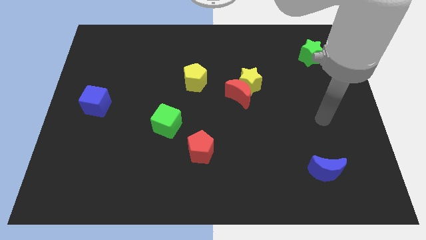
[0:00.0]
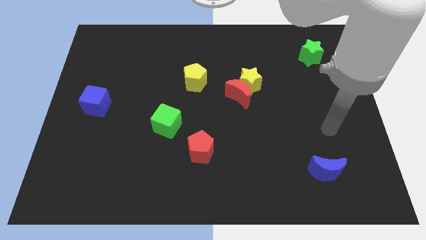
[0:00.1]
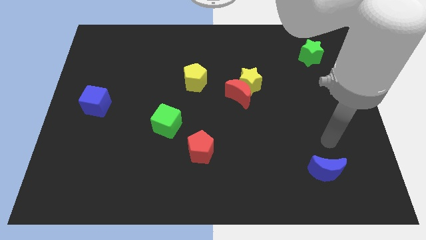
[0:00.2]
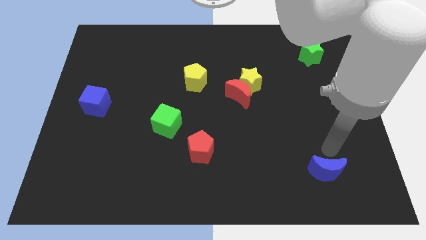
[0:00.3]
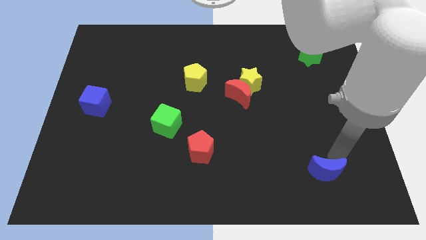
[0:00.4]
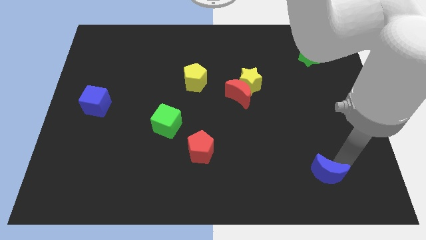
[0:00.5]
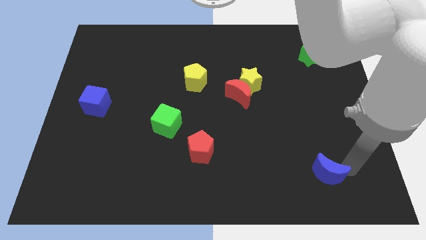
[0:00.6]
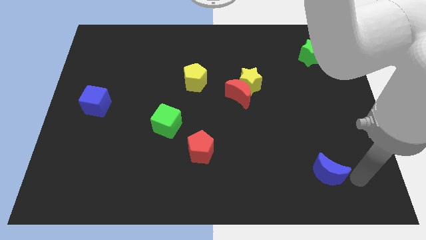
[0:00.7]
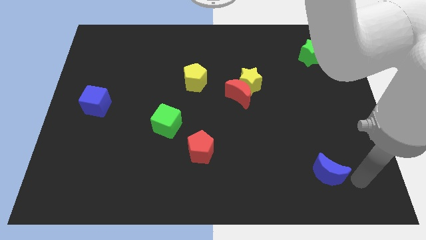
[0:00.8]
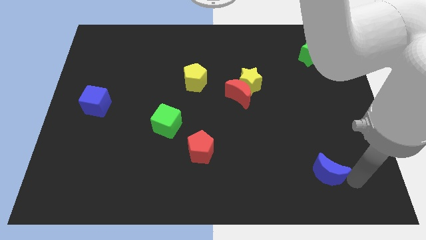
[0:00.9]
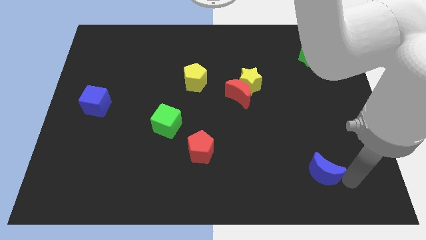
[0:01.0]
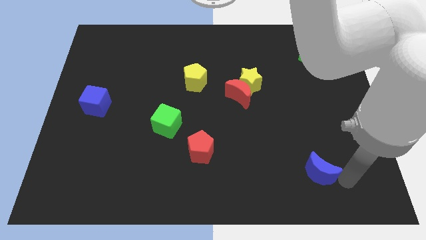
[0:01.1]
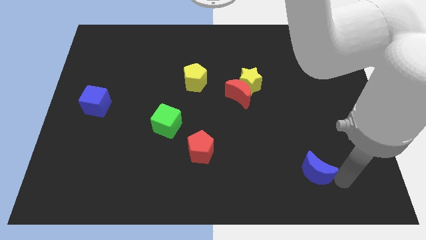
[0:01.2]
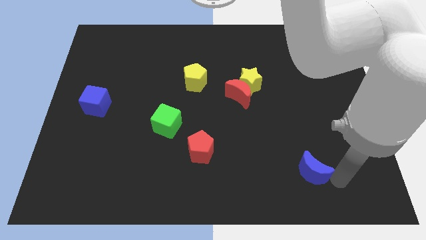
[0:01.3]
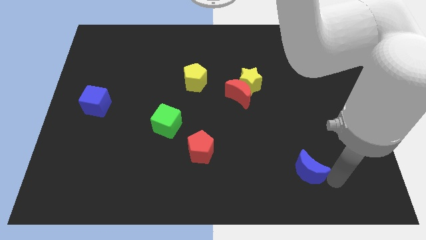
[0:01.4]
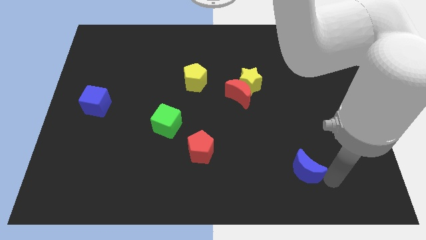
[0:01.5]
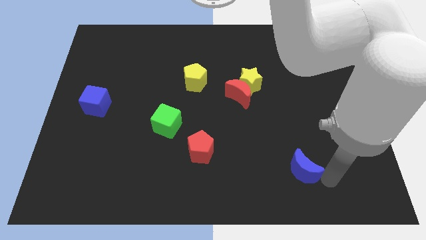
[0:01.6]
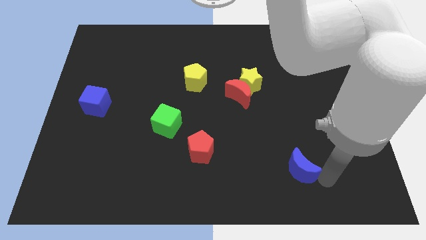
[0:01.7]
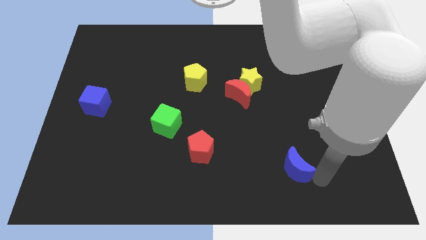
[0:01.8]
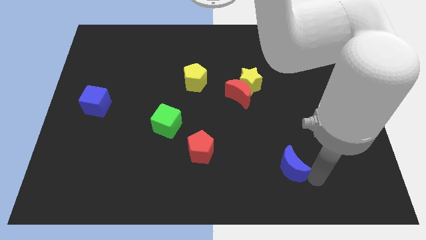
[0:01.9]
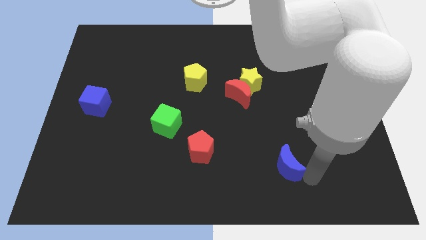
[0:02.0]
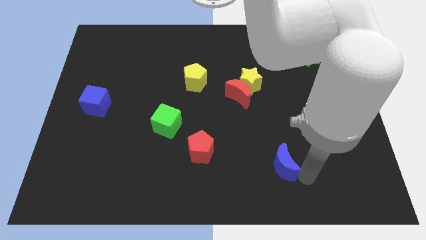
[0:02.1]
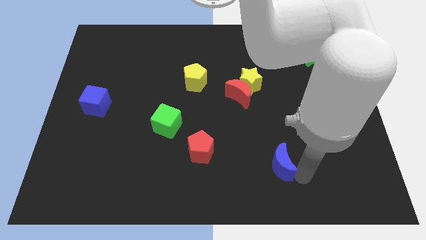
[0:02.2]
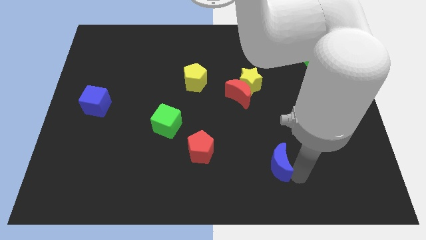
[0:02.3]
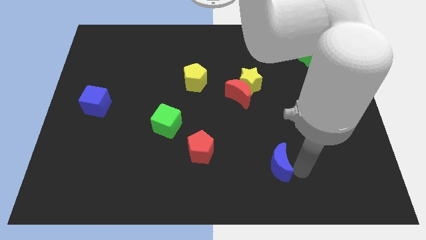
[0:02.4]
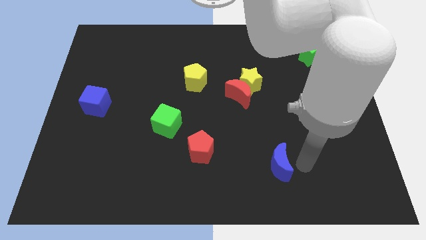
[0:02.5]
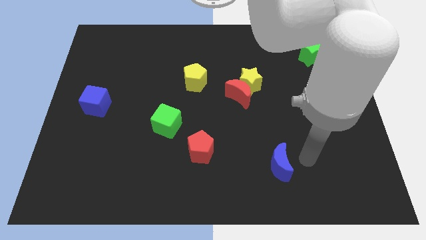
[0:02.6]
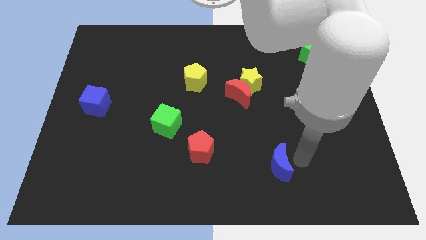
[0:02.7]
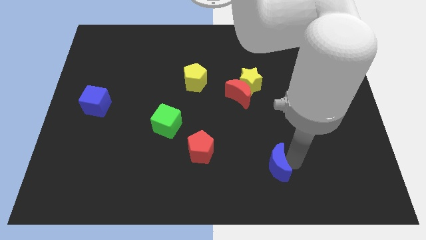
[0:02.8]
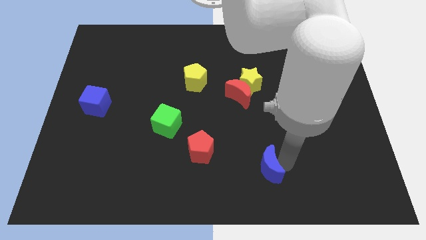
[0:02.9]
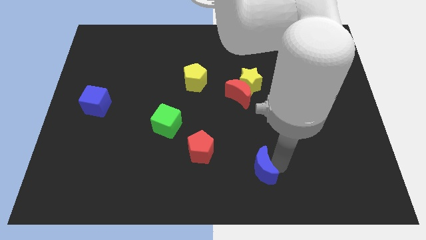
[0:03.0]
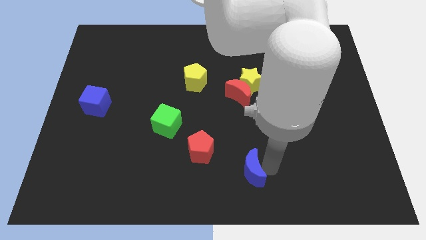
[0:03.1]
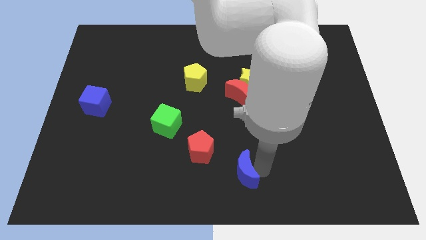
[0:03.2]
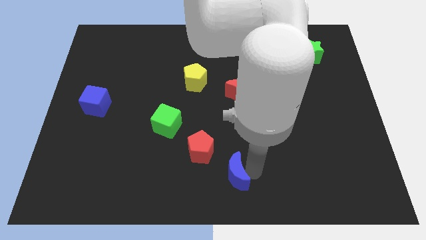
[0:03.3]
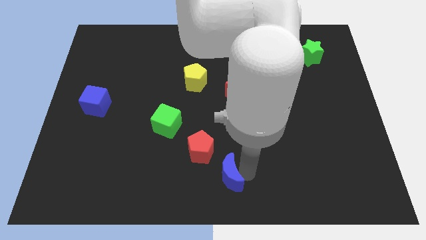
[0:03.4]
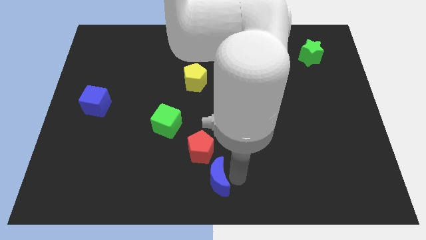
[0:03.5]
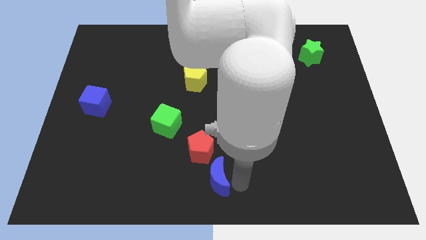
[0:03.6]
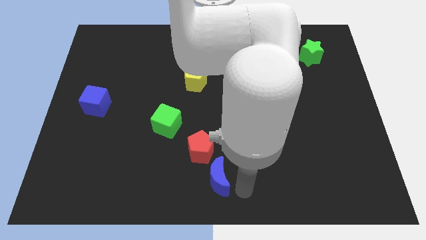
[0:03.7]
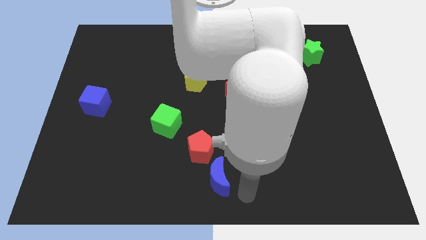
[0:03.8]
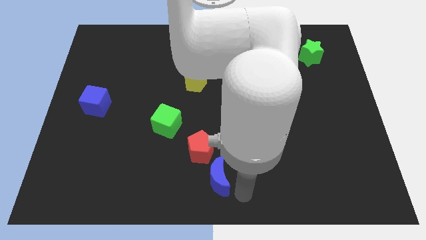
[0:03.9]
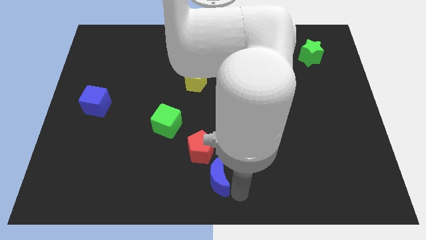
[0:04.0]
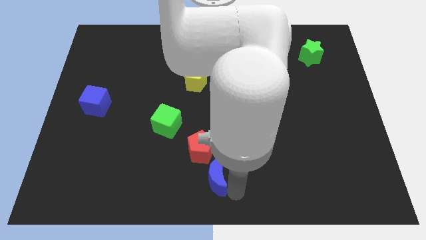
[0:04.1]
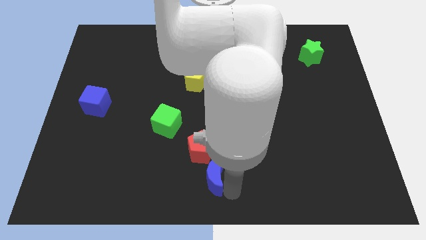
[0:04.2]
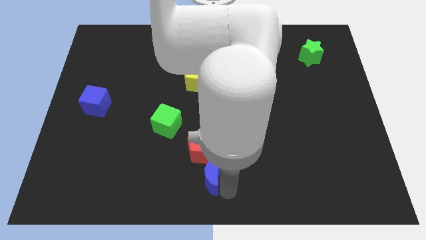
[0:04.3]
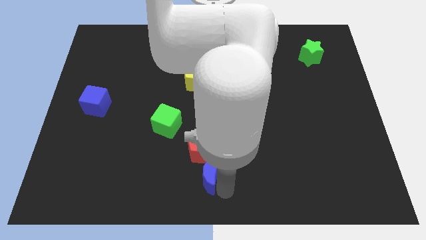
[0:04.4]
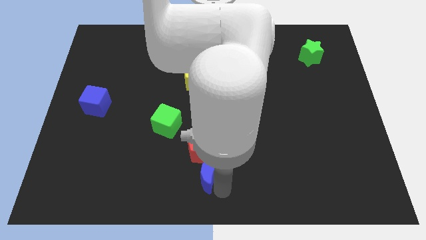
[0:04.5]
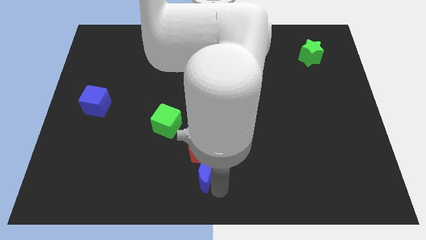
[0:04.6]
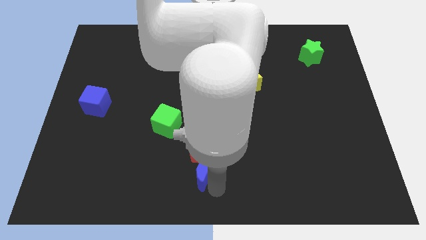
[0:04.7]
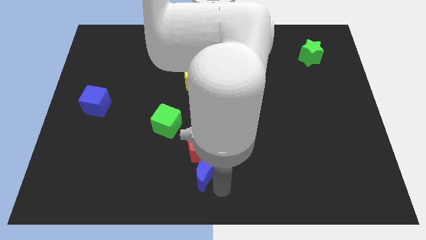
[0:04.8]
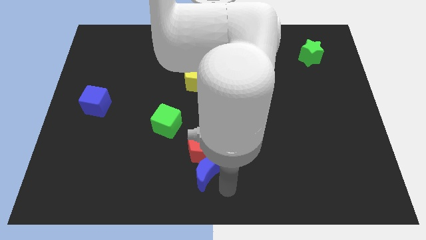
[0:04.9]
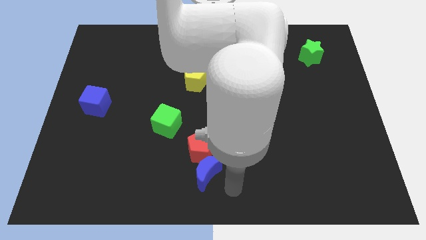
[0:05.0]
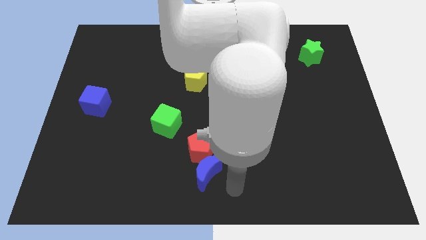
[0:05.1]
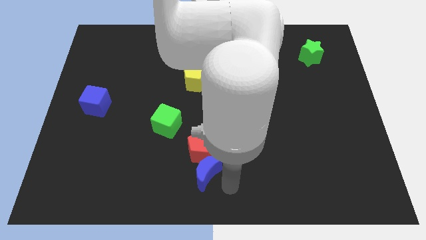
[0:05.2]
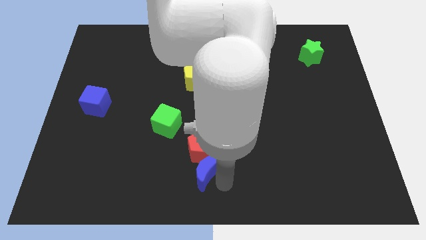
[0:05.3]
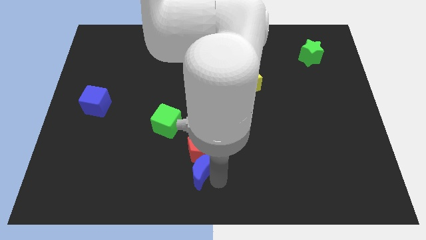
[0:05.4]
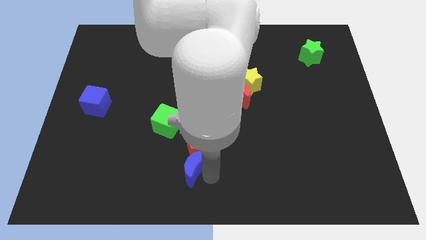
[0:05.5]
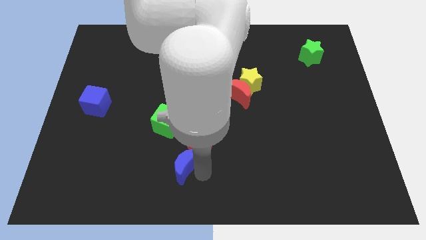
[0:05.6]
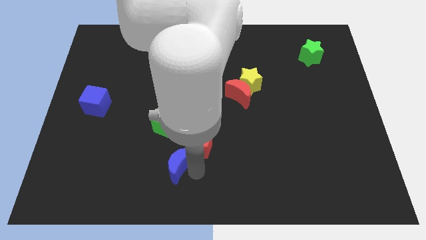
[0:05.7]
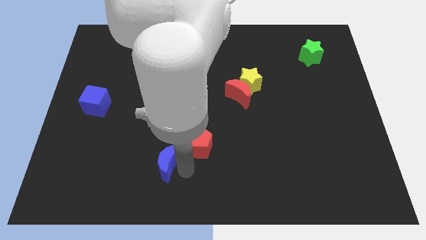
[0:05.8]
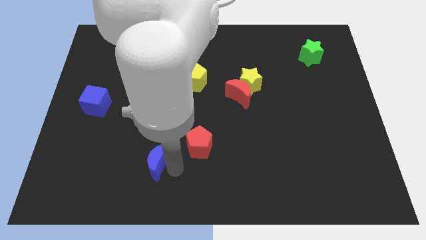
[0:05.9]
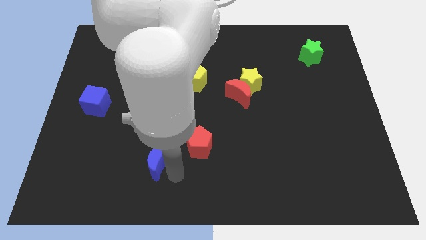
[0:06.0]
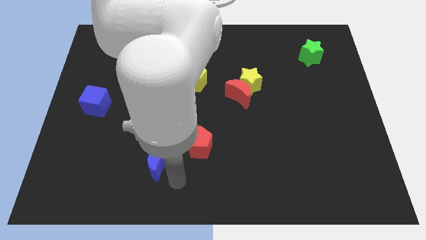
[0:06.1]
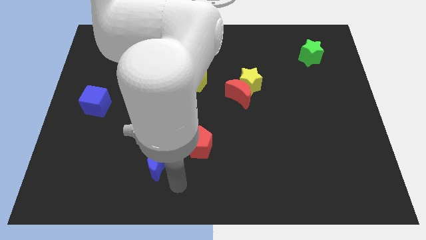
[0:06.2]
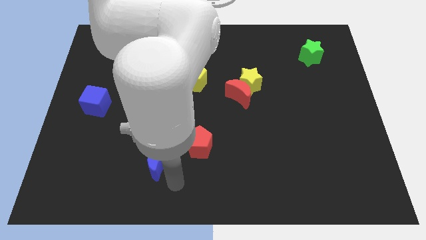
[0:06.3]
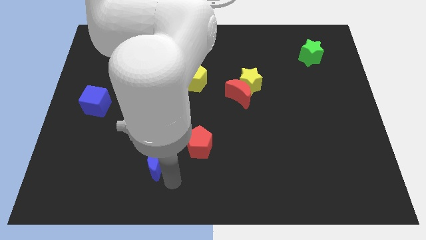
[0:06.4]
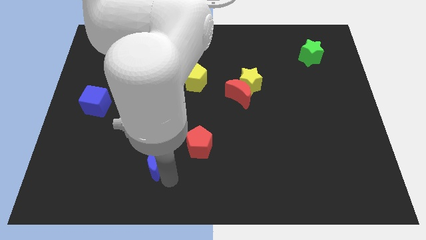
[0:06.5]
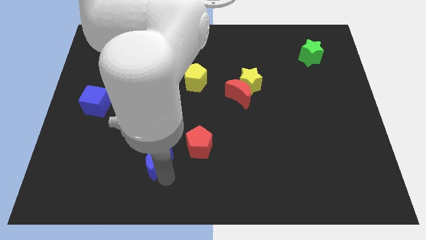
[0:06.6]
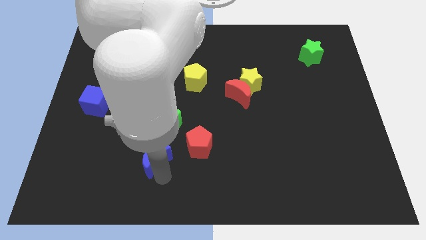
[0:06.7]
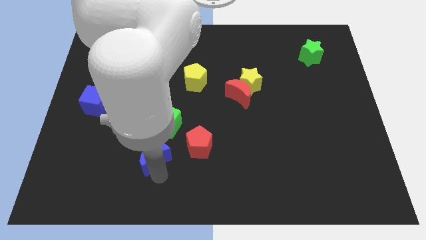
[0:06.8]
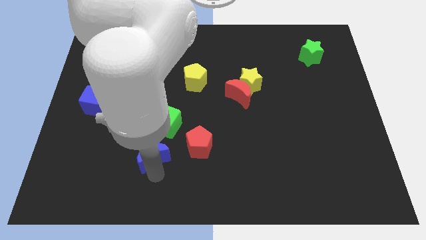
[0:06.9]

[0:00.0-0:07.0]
move the blue moon diagonally down and to the left of the green cube

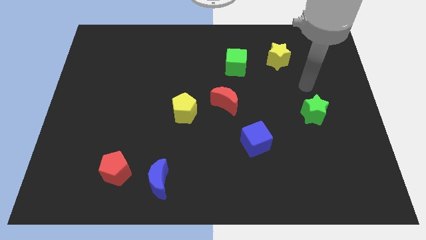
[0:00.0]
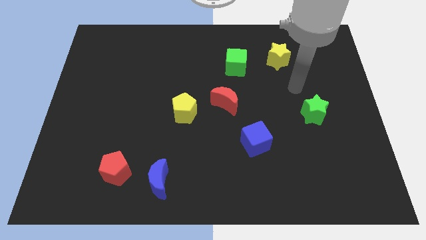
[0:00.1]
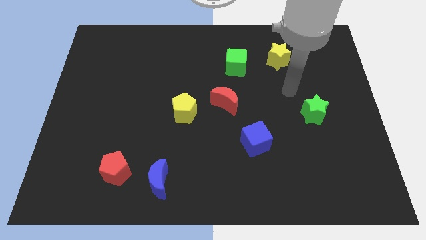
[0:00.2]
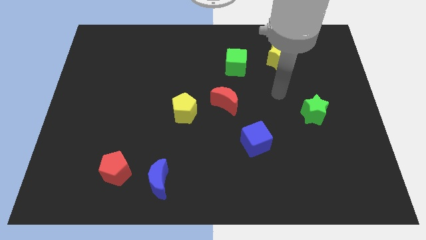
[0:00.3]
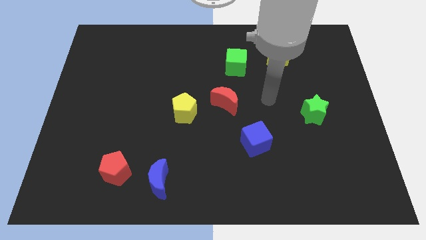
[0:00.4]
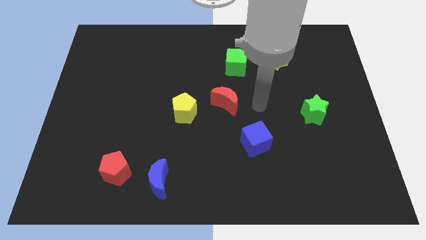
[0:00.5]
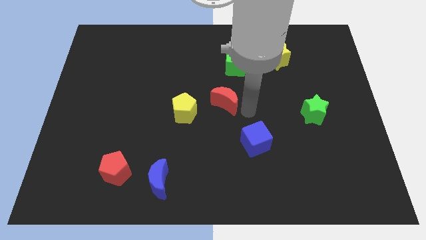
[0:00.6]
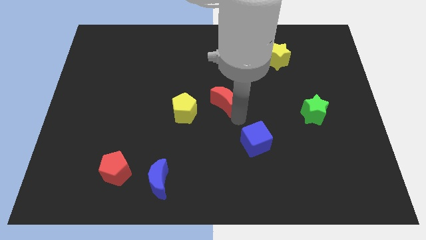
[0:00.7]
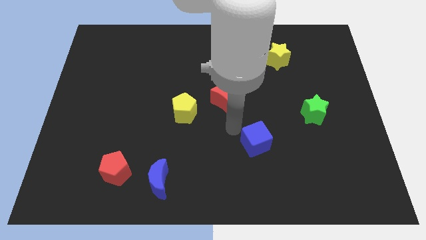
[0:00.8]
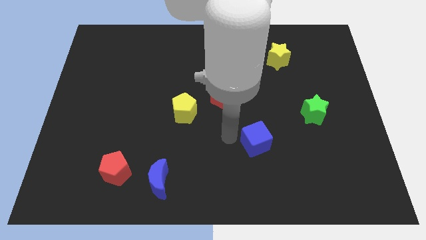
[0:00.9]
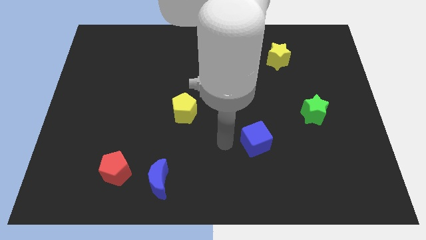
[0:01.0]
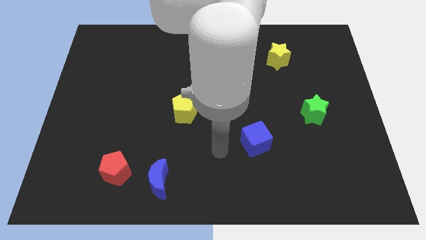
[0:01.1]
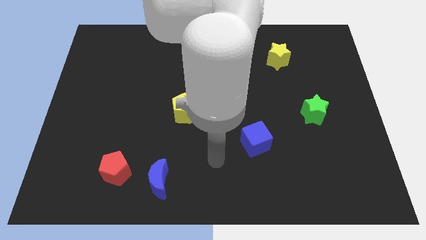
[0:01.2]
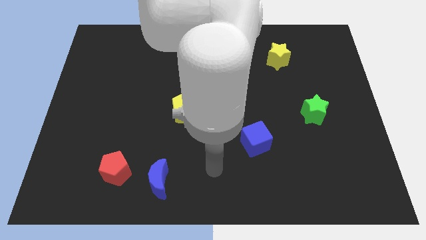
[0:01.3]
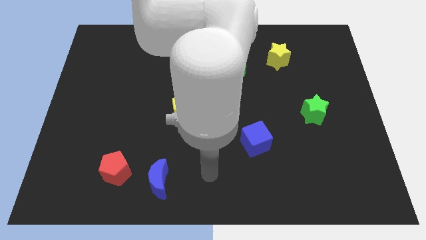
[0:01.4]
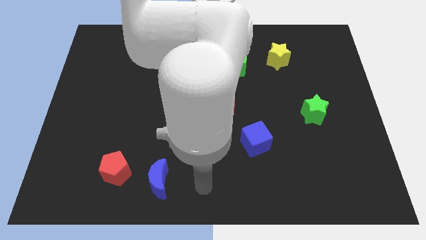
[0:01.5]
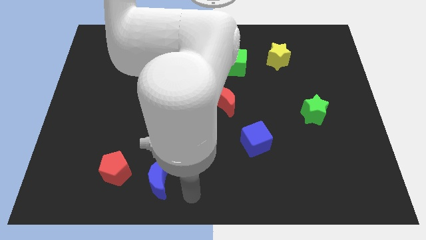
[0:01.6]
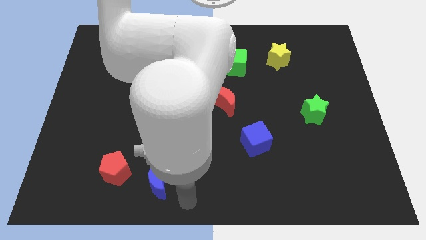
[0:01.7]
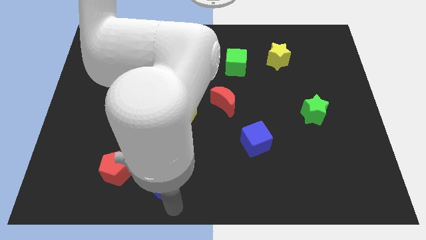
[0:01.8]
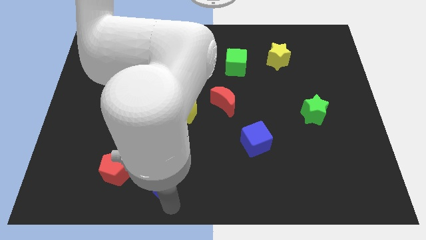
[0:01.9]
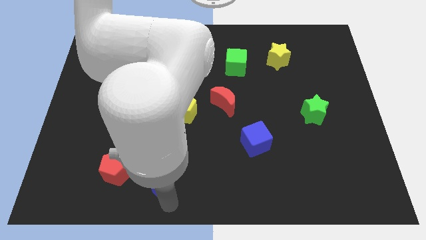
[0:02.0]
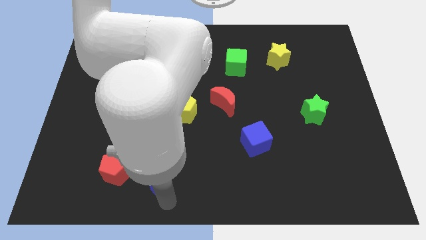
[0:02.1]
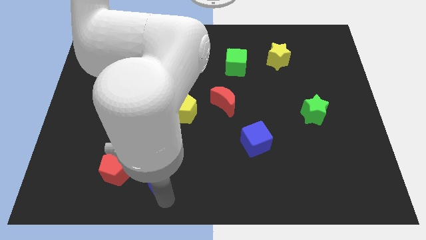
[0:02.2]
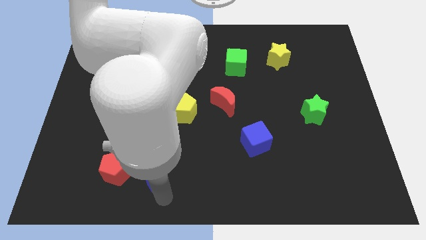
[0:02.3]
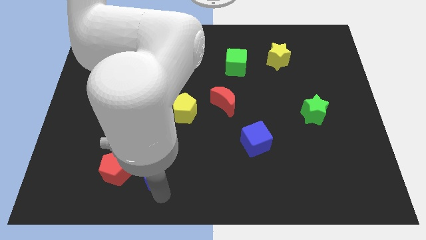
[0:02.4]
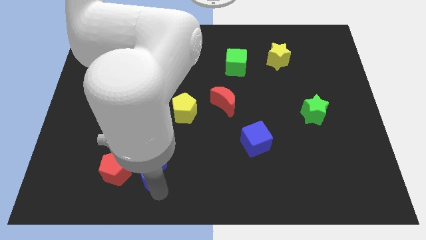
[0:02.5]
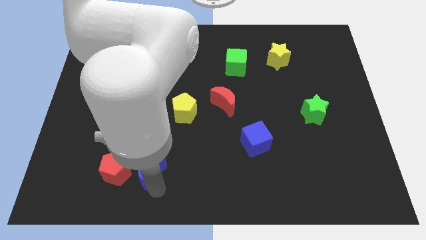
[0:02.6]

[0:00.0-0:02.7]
push the blue moon to the top right side of the red pentagon
